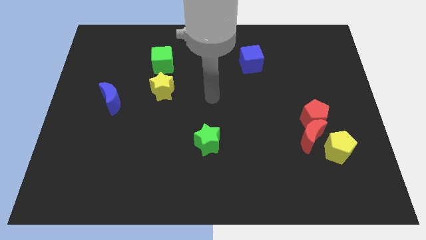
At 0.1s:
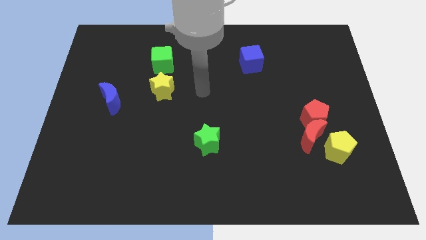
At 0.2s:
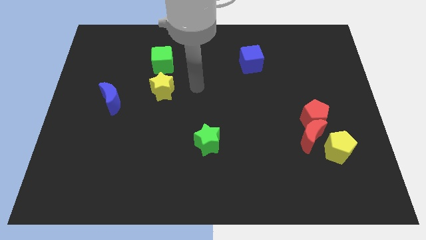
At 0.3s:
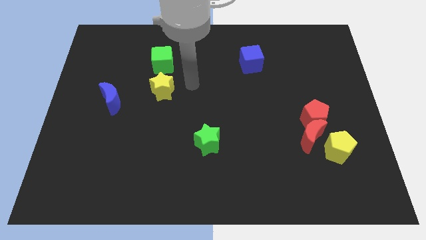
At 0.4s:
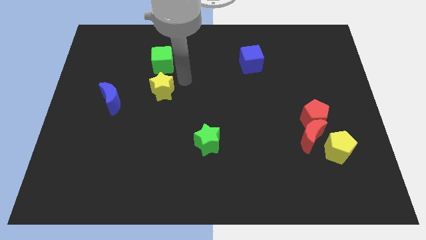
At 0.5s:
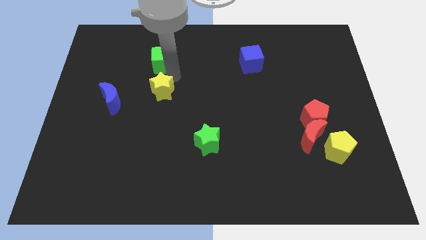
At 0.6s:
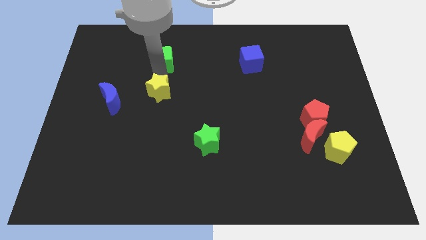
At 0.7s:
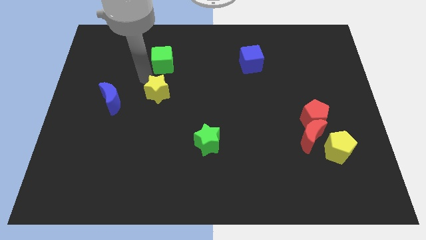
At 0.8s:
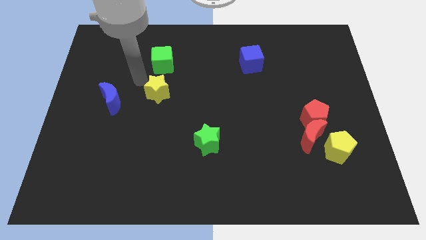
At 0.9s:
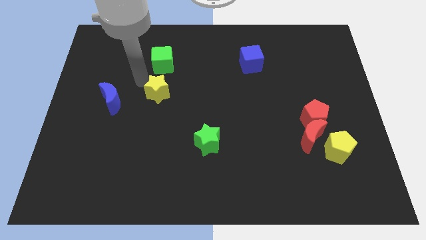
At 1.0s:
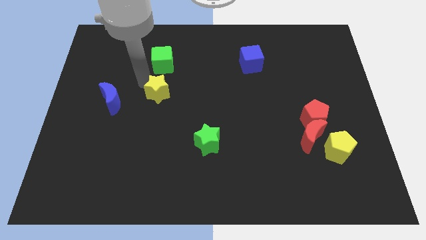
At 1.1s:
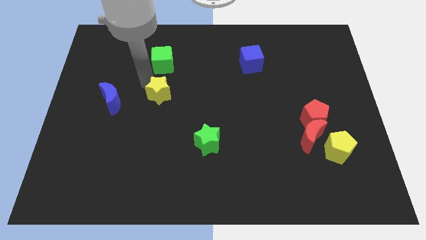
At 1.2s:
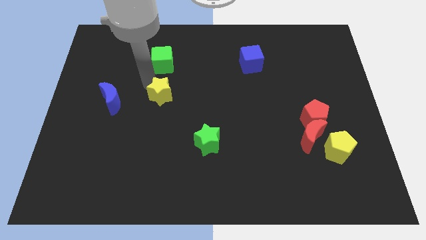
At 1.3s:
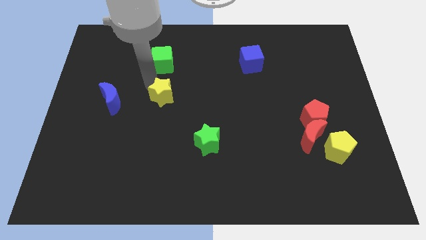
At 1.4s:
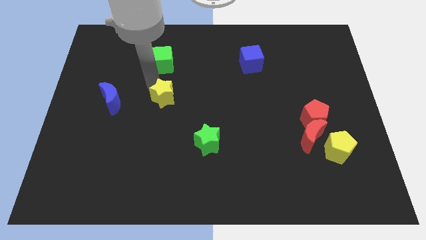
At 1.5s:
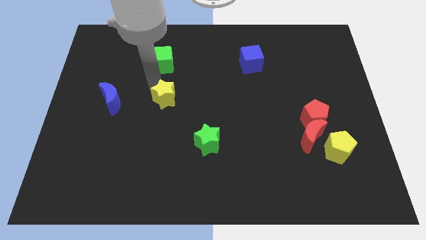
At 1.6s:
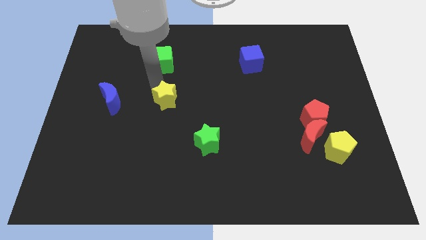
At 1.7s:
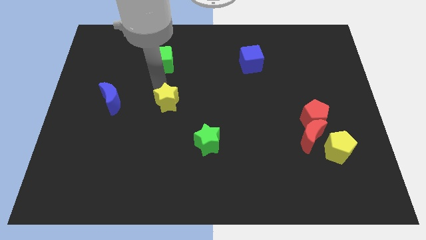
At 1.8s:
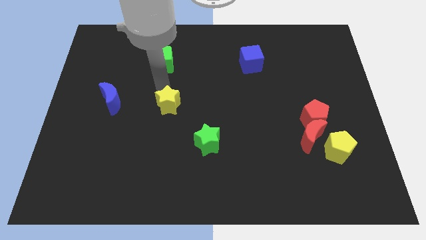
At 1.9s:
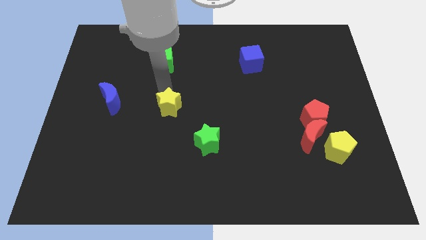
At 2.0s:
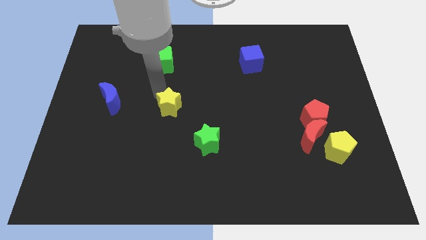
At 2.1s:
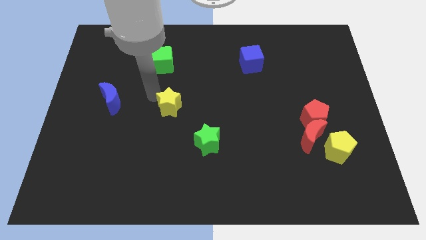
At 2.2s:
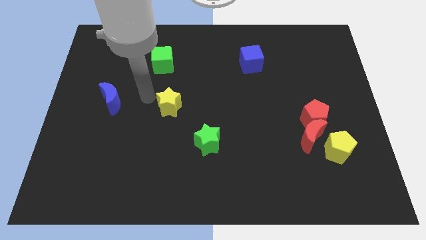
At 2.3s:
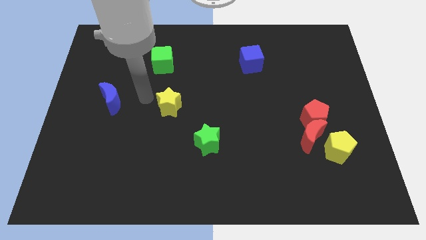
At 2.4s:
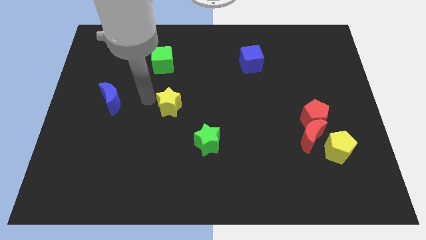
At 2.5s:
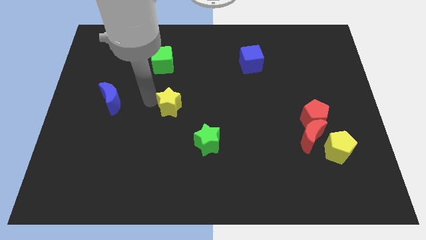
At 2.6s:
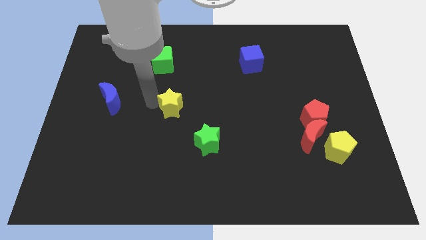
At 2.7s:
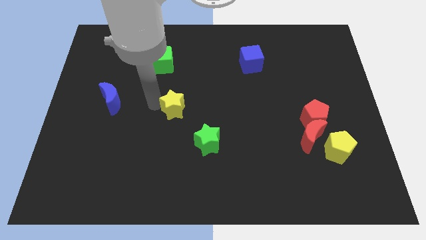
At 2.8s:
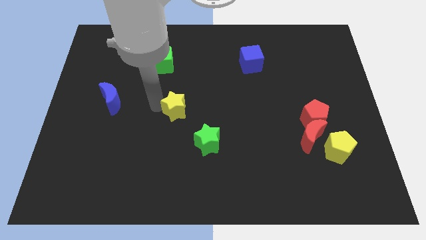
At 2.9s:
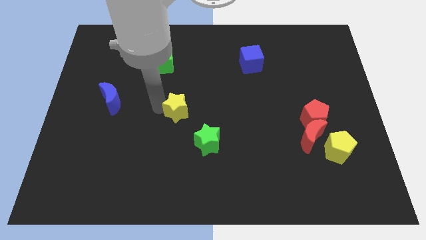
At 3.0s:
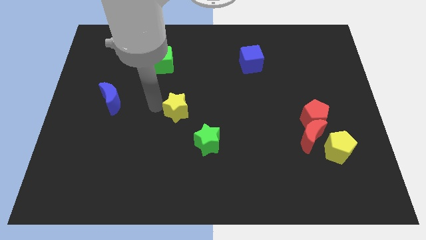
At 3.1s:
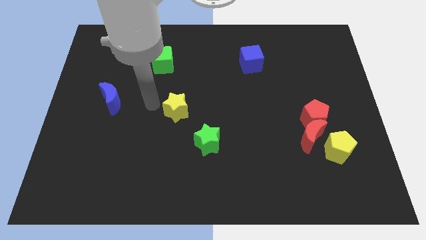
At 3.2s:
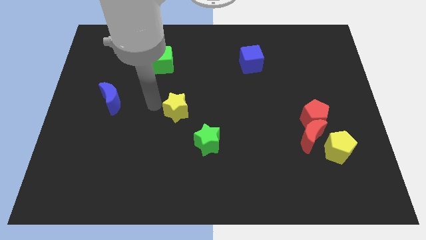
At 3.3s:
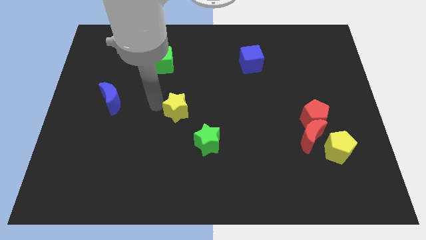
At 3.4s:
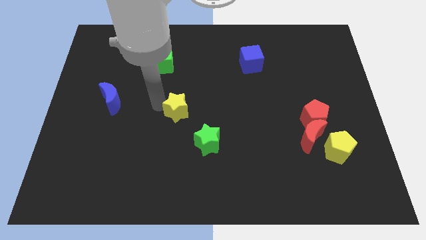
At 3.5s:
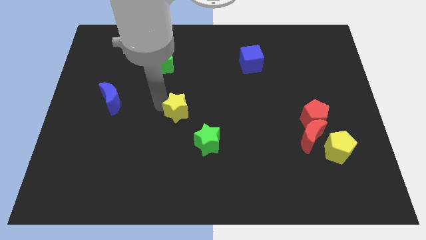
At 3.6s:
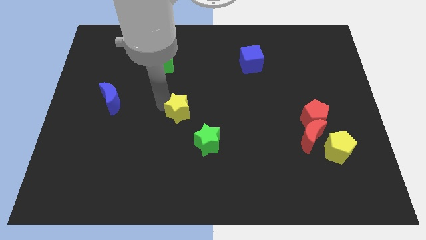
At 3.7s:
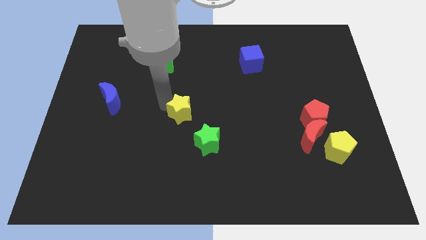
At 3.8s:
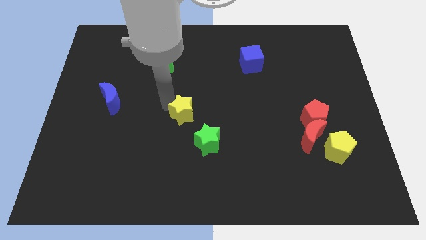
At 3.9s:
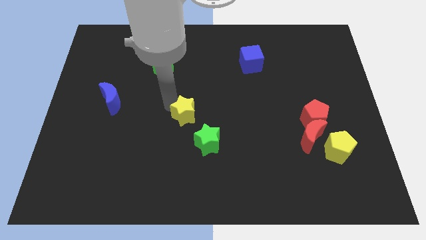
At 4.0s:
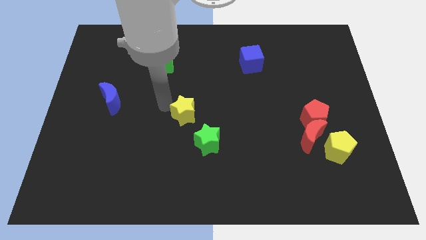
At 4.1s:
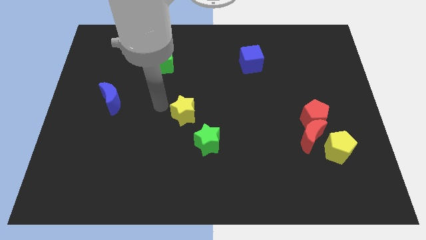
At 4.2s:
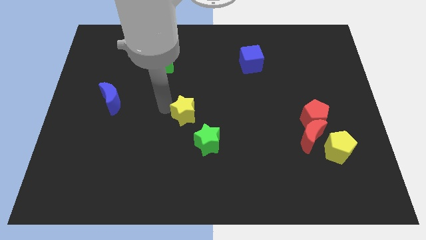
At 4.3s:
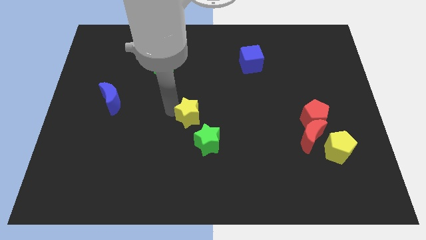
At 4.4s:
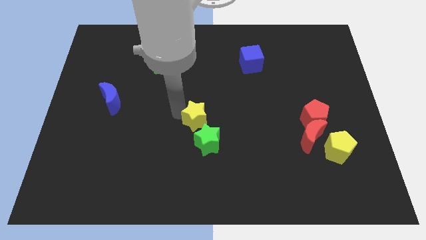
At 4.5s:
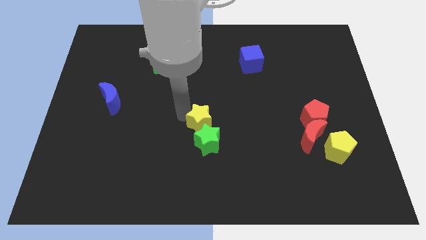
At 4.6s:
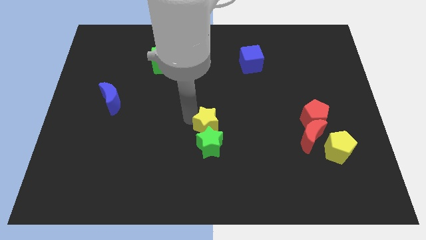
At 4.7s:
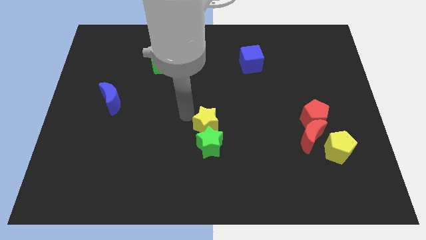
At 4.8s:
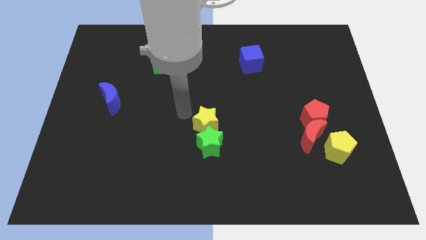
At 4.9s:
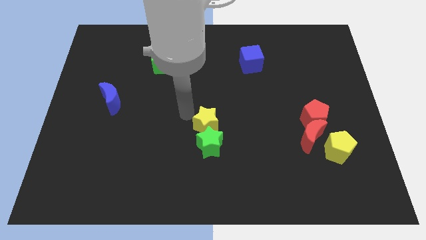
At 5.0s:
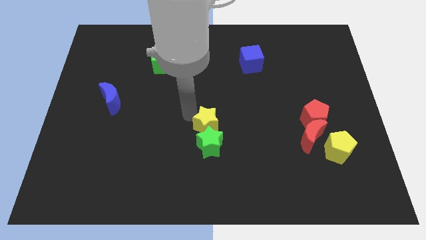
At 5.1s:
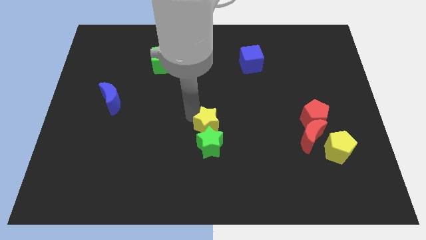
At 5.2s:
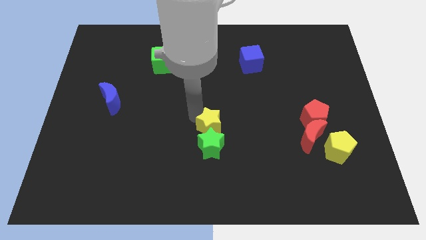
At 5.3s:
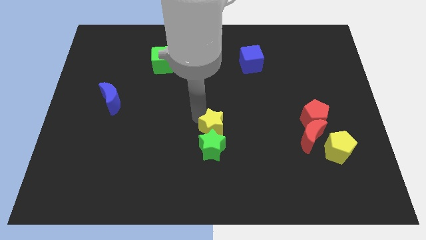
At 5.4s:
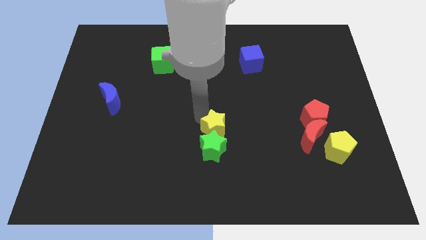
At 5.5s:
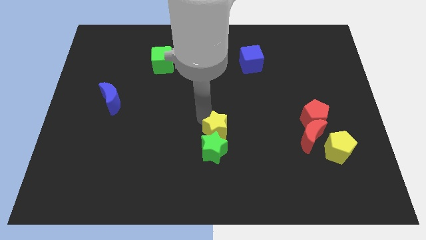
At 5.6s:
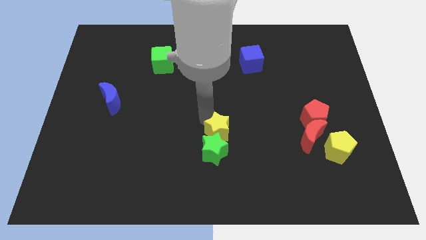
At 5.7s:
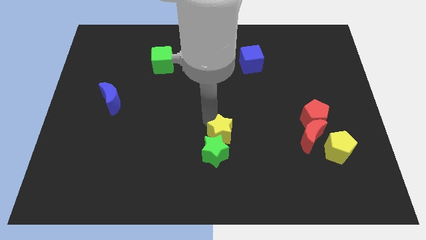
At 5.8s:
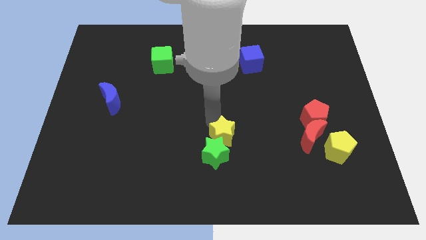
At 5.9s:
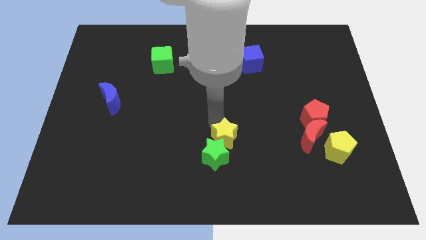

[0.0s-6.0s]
move the yellow star downwards and then to the right

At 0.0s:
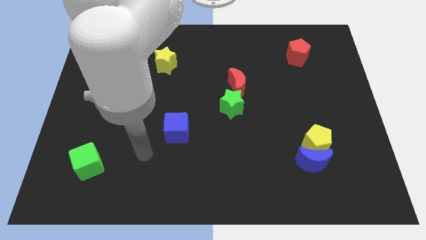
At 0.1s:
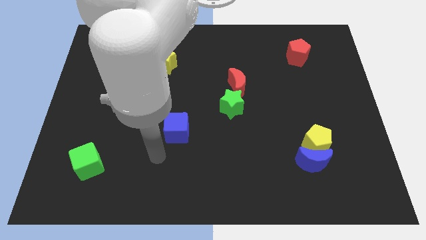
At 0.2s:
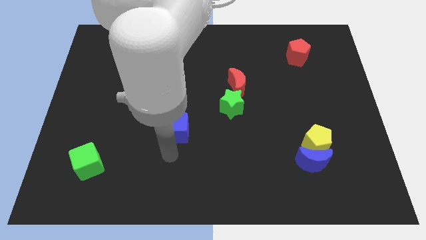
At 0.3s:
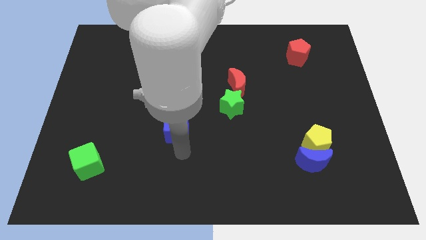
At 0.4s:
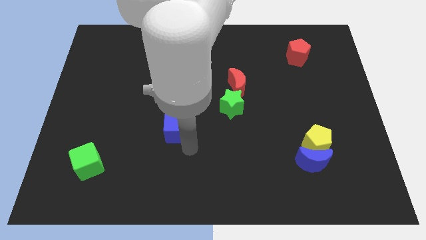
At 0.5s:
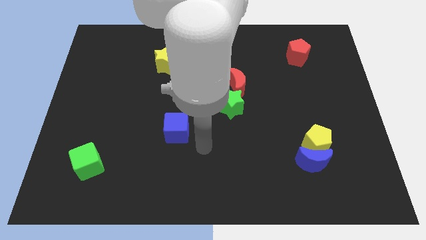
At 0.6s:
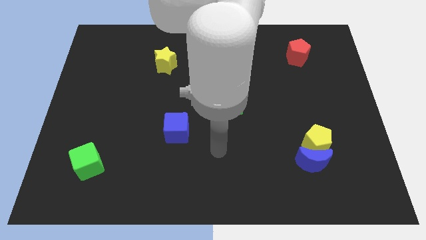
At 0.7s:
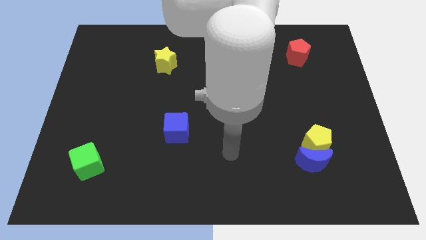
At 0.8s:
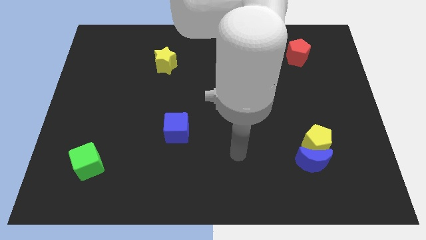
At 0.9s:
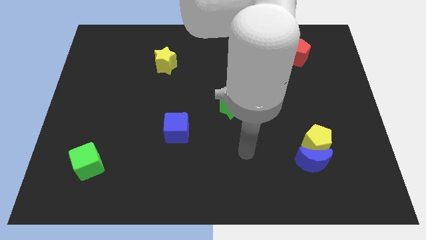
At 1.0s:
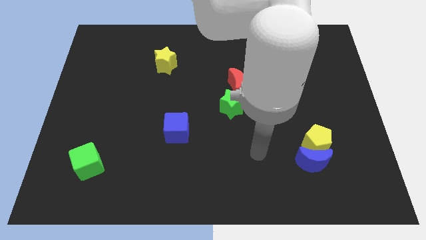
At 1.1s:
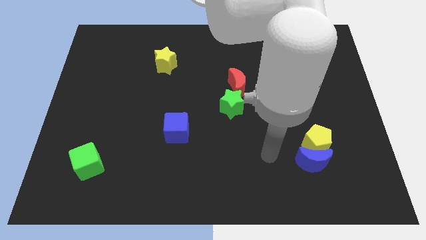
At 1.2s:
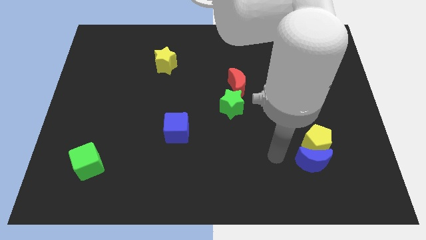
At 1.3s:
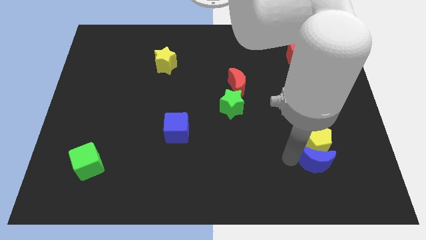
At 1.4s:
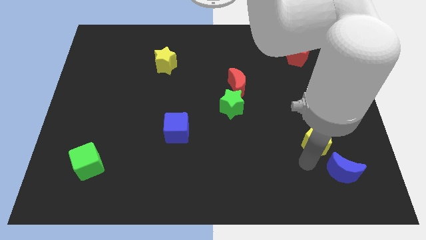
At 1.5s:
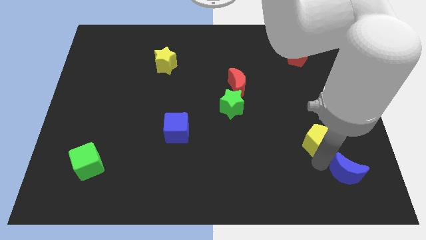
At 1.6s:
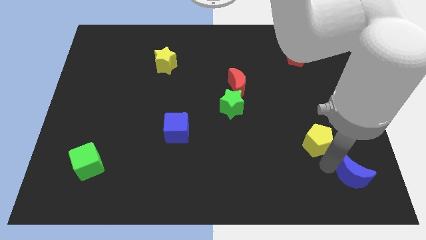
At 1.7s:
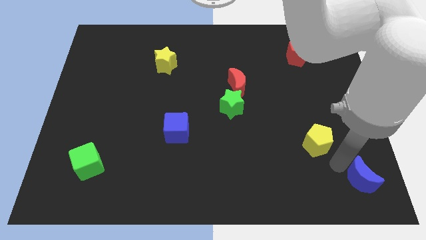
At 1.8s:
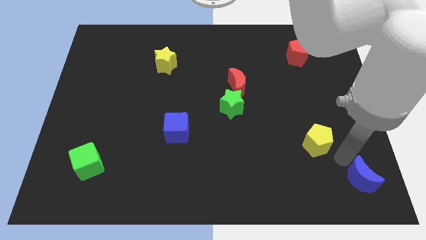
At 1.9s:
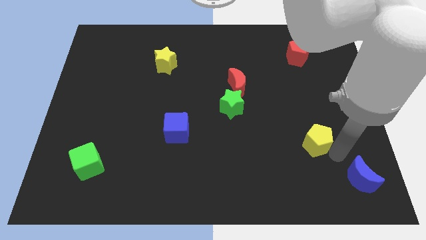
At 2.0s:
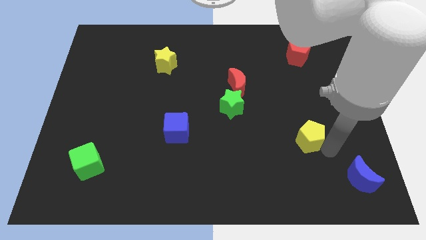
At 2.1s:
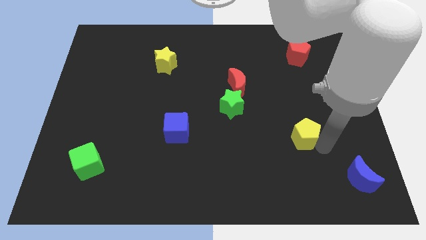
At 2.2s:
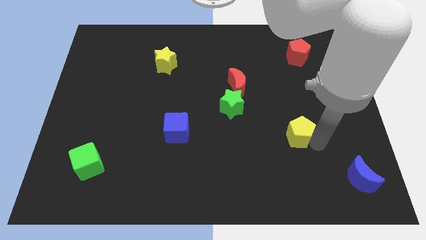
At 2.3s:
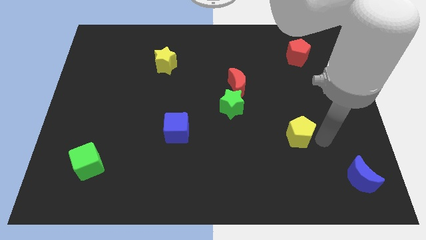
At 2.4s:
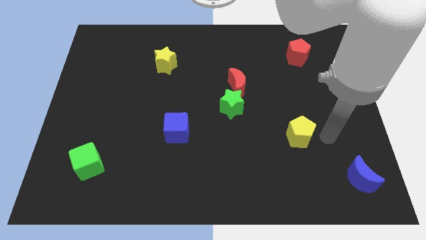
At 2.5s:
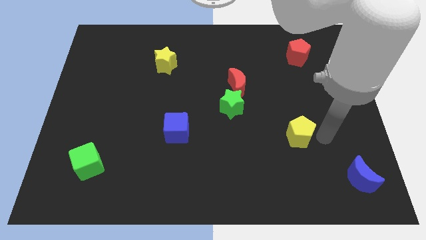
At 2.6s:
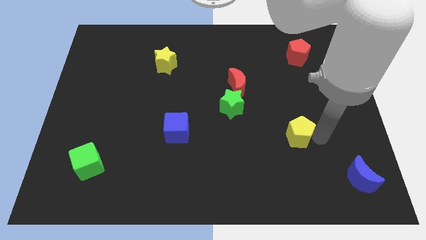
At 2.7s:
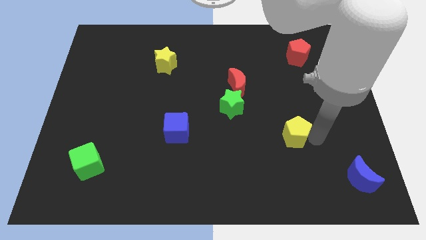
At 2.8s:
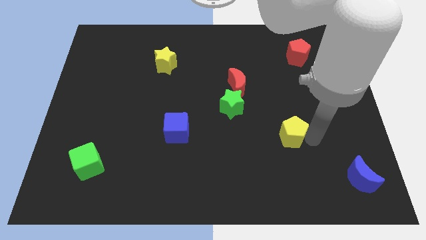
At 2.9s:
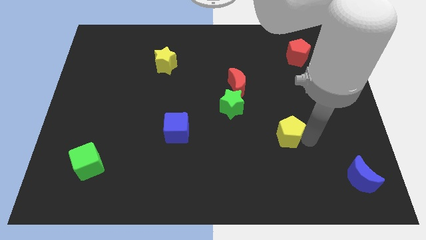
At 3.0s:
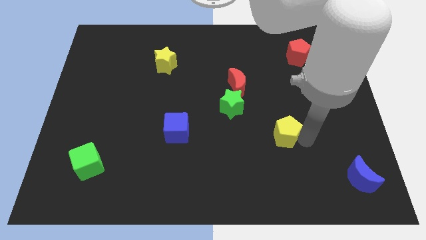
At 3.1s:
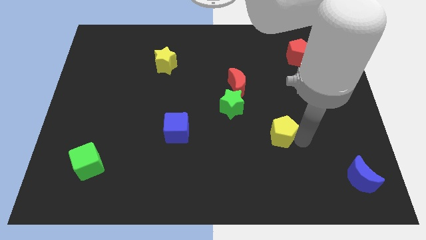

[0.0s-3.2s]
move the yellow pentagon to the left somewhat
